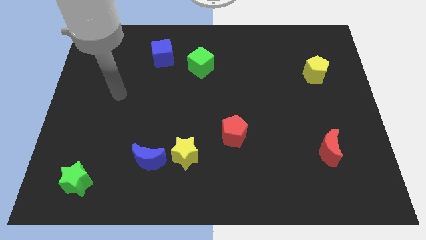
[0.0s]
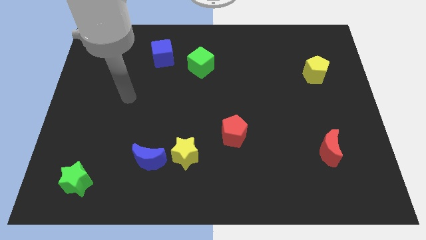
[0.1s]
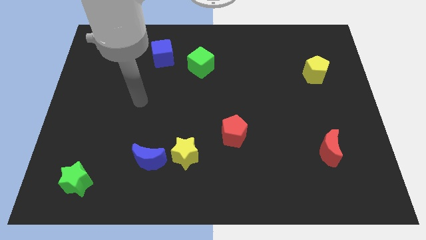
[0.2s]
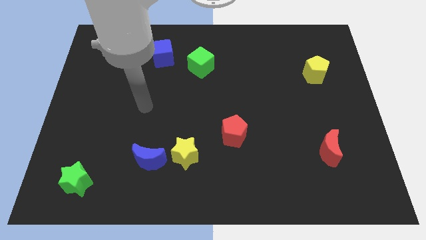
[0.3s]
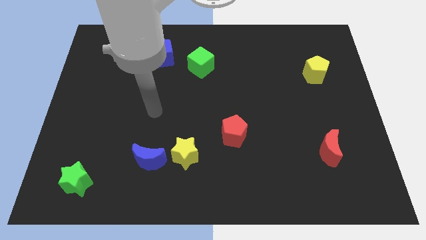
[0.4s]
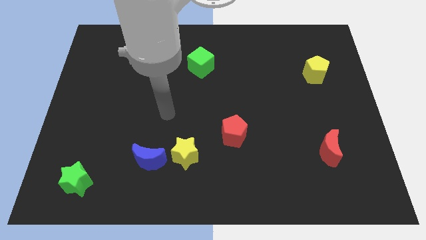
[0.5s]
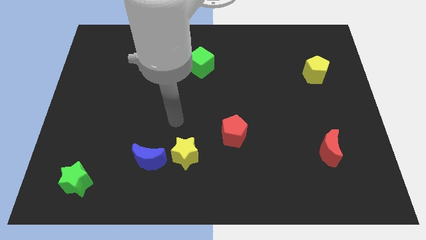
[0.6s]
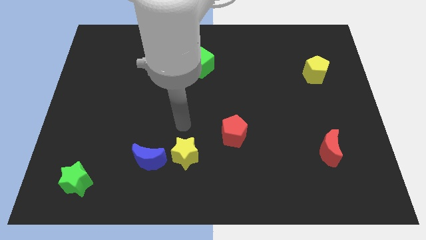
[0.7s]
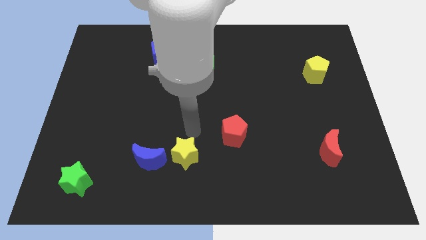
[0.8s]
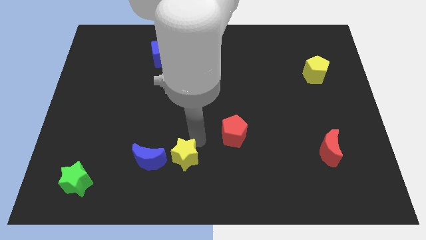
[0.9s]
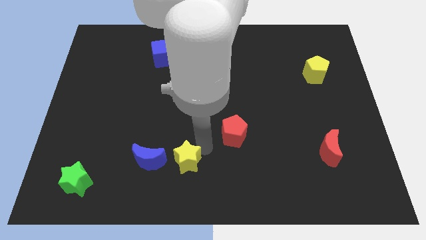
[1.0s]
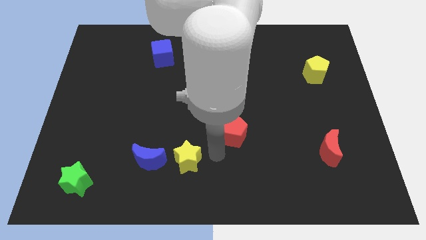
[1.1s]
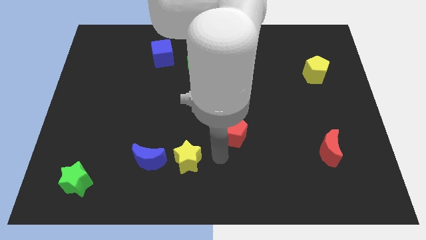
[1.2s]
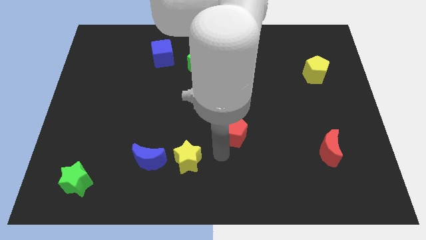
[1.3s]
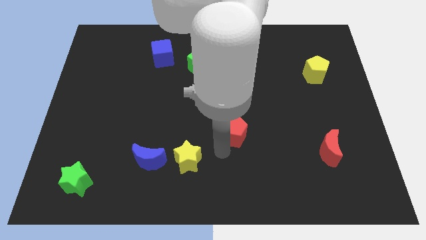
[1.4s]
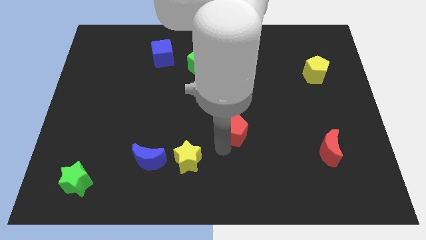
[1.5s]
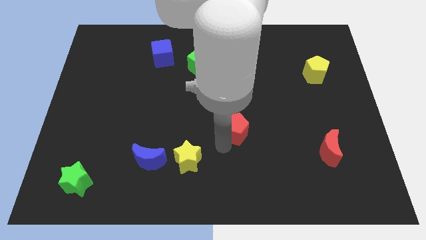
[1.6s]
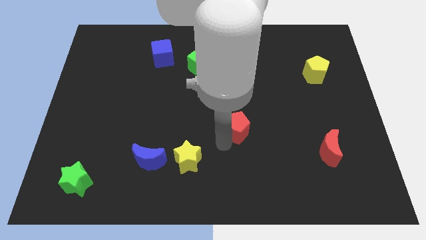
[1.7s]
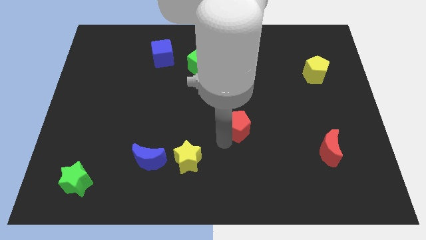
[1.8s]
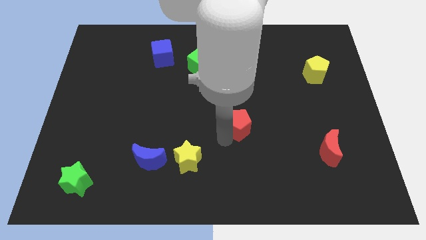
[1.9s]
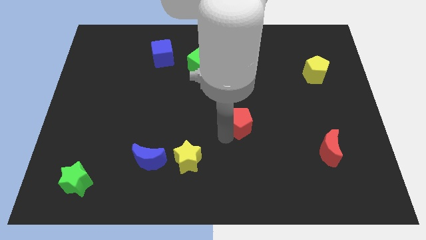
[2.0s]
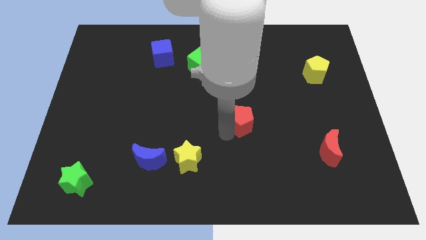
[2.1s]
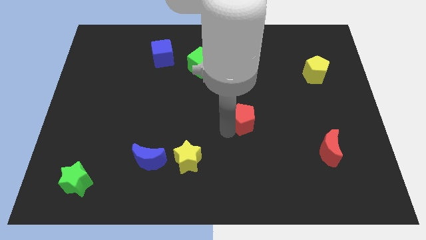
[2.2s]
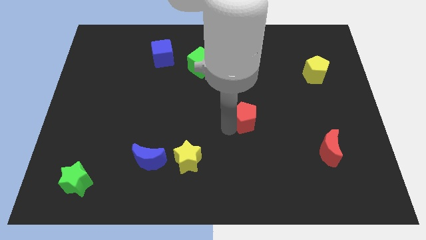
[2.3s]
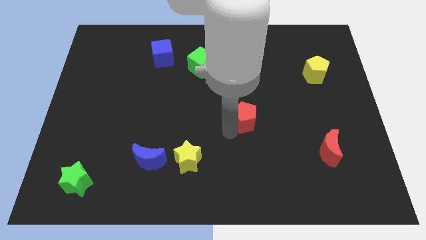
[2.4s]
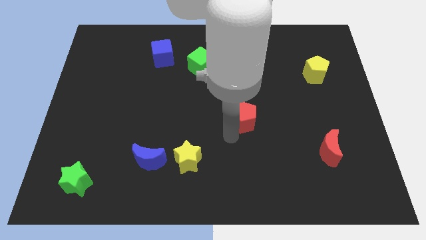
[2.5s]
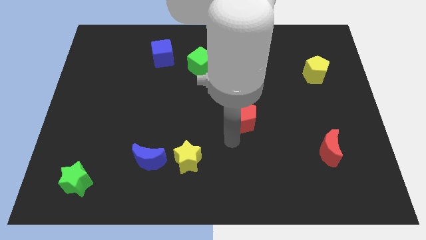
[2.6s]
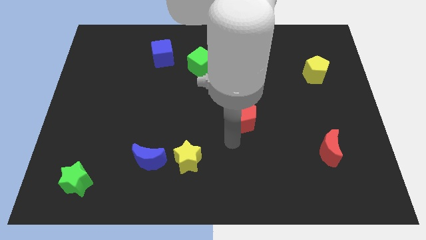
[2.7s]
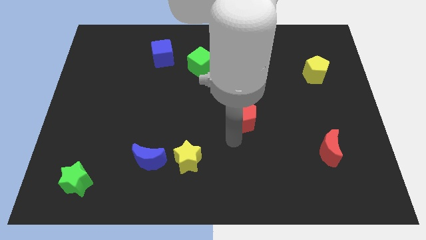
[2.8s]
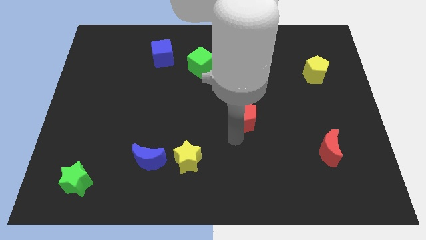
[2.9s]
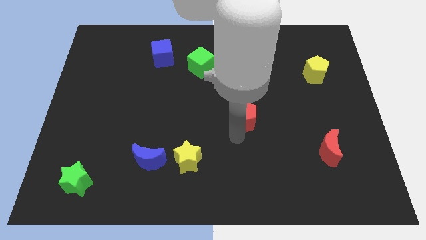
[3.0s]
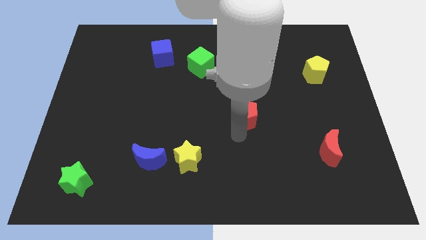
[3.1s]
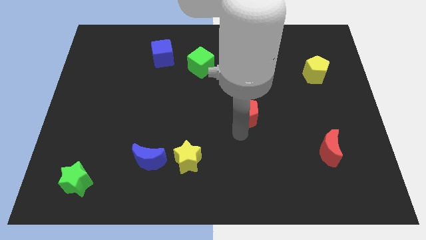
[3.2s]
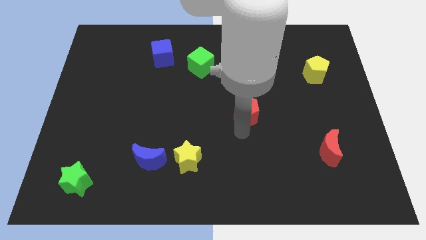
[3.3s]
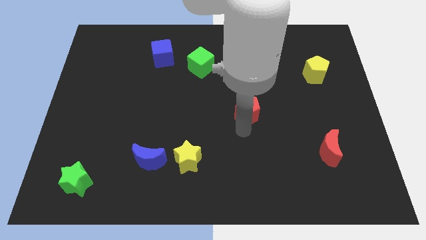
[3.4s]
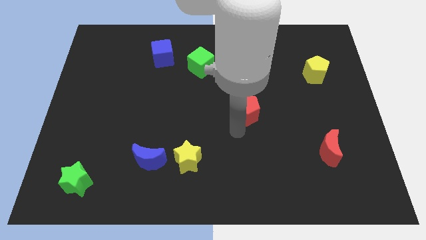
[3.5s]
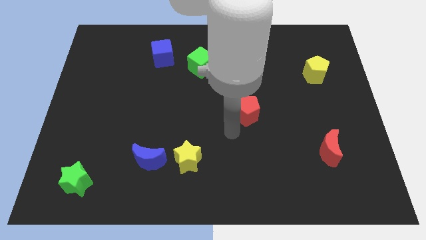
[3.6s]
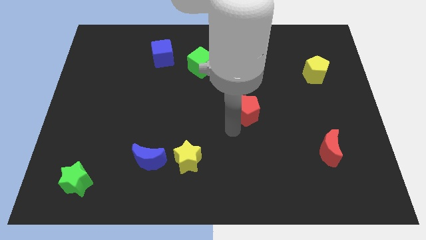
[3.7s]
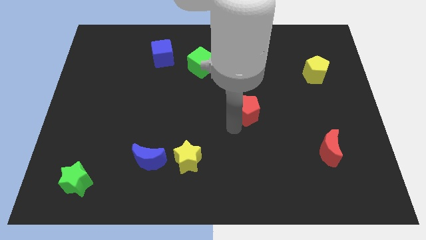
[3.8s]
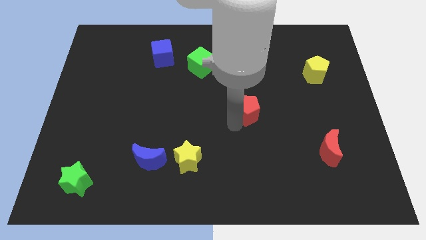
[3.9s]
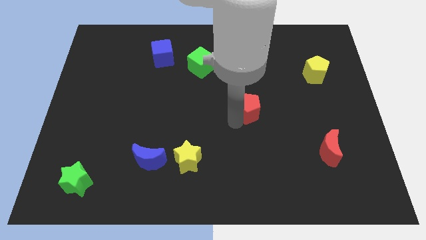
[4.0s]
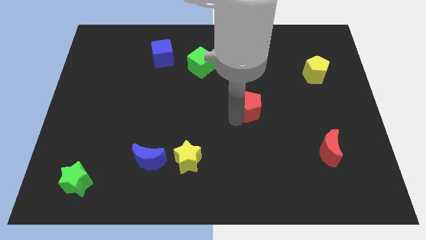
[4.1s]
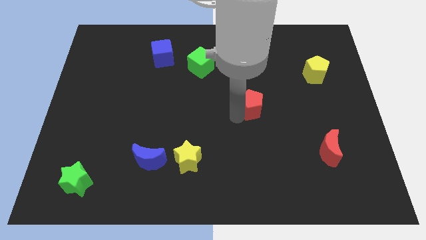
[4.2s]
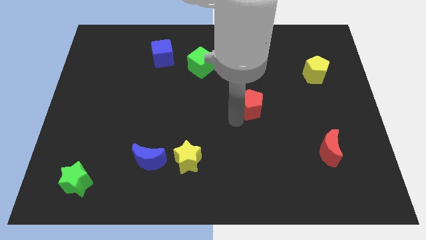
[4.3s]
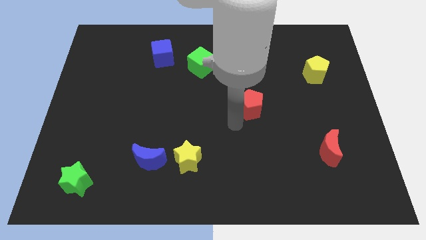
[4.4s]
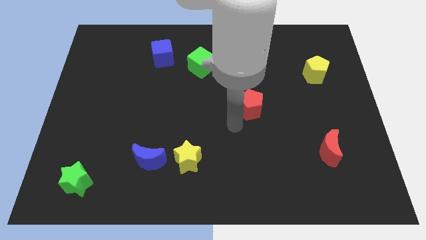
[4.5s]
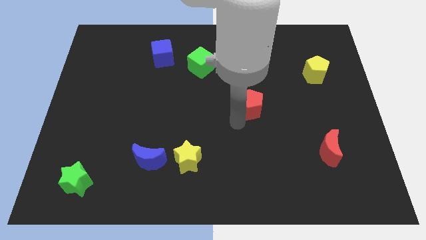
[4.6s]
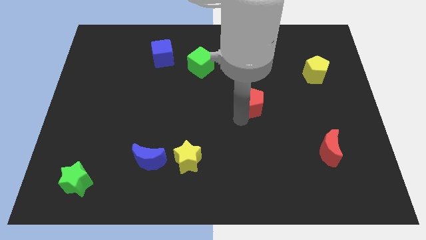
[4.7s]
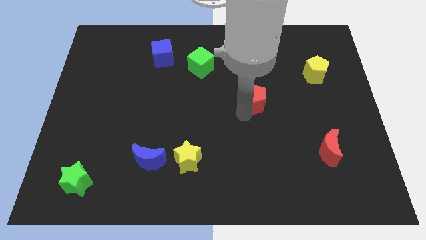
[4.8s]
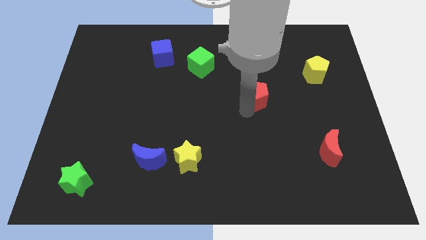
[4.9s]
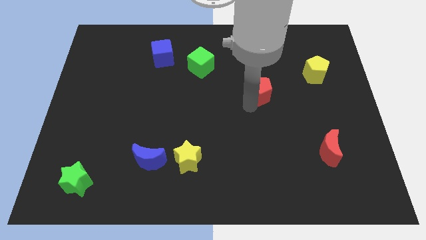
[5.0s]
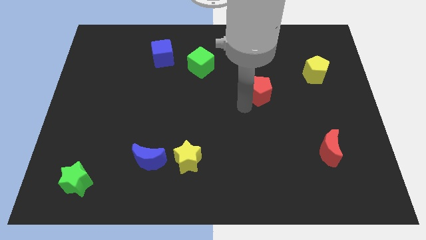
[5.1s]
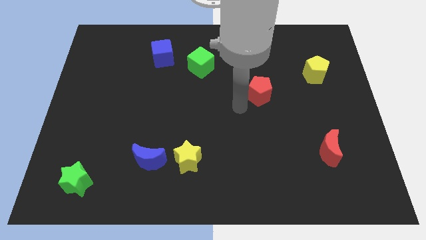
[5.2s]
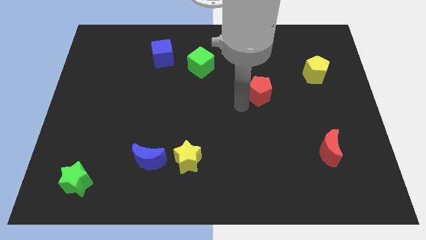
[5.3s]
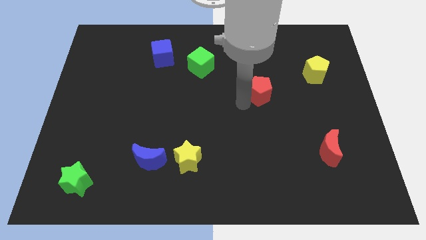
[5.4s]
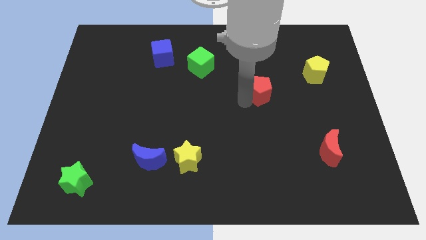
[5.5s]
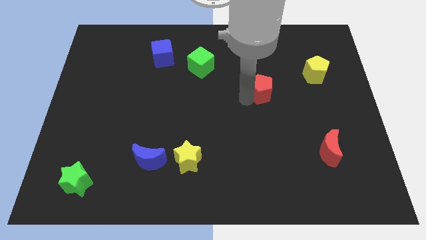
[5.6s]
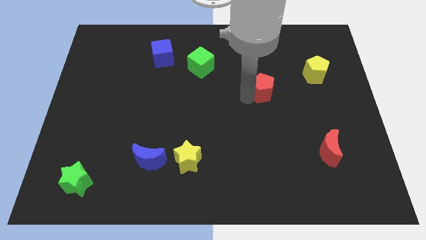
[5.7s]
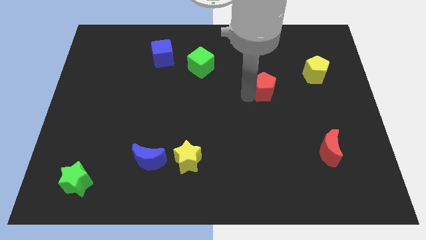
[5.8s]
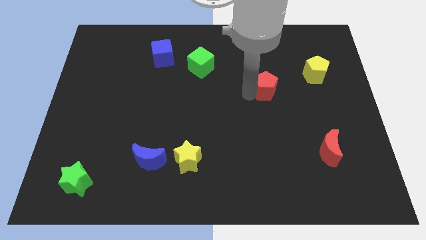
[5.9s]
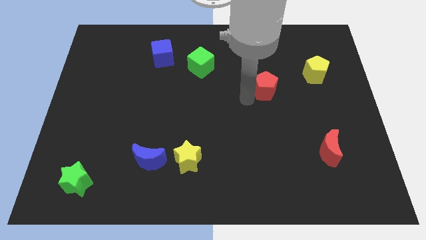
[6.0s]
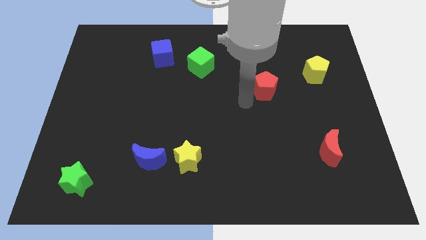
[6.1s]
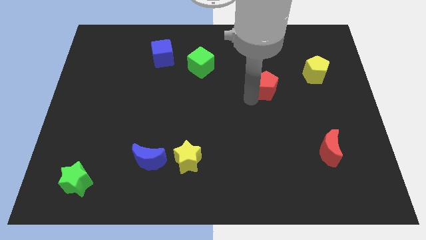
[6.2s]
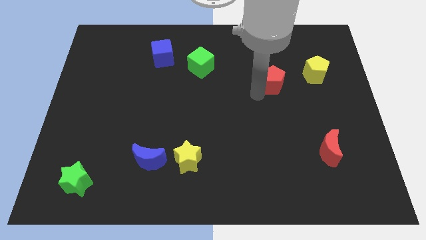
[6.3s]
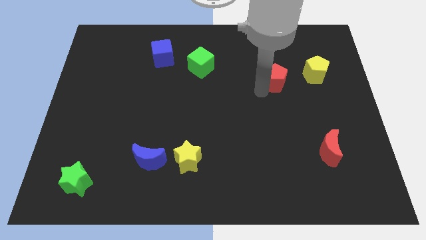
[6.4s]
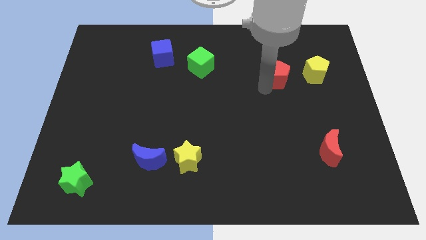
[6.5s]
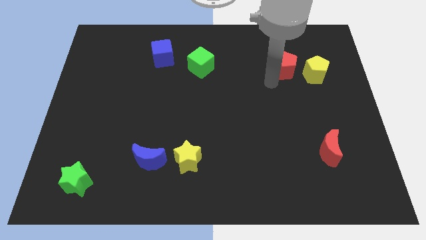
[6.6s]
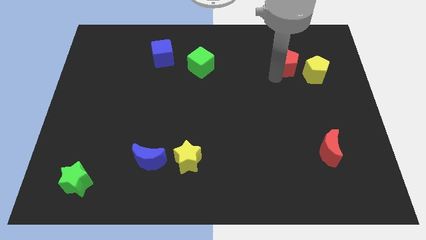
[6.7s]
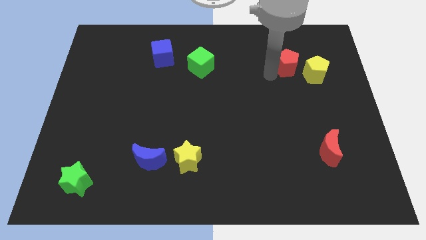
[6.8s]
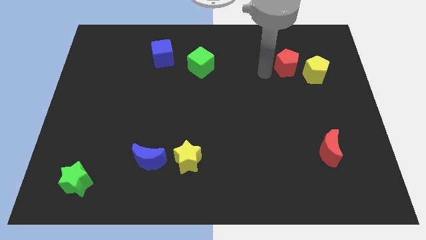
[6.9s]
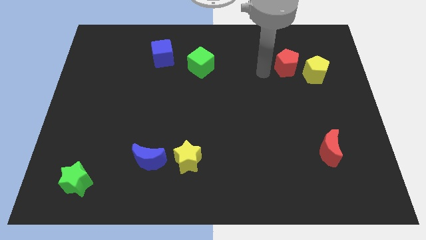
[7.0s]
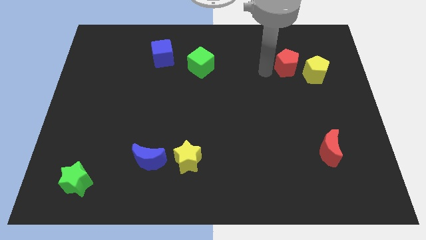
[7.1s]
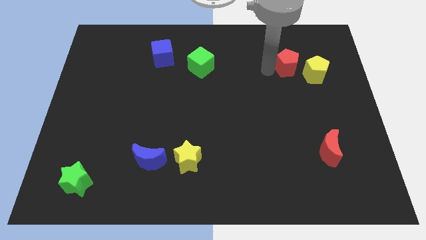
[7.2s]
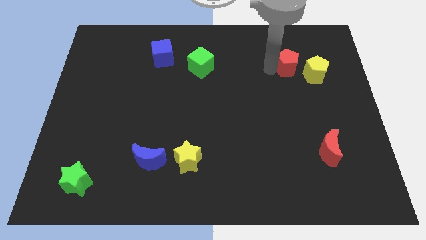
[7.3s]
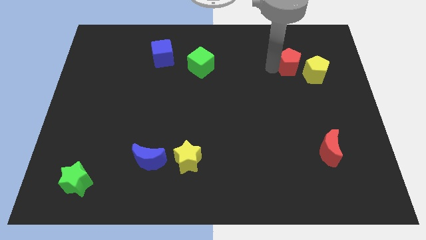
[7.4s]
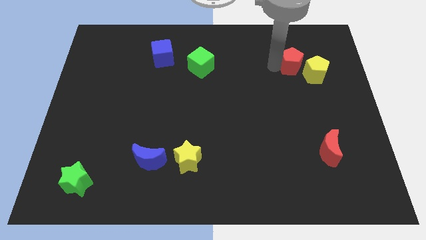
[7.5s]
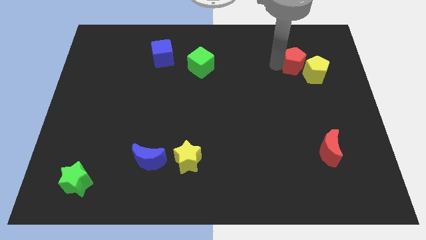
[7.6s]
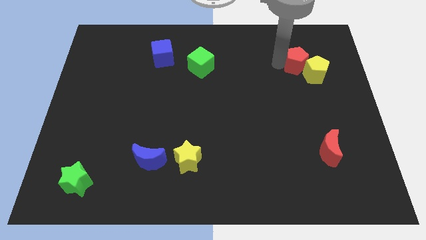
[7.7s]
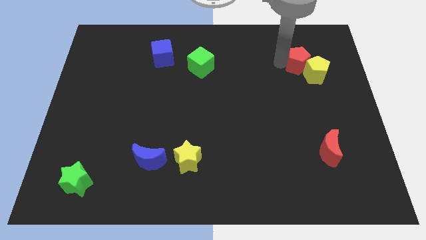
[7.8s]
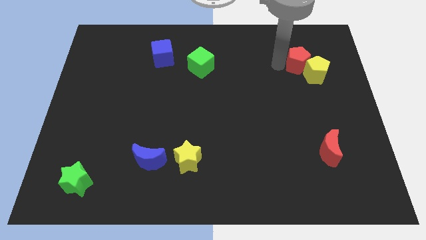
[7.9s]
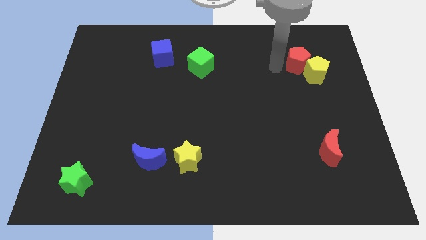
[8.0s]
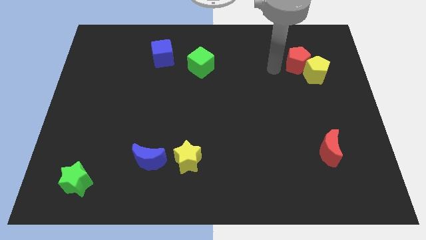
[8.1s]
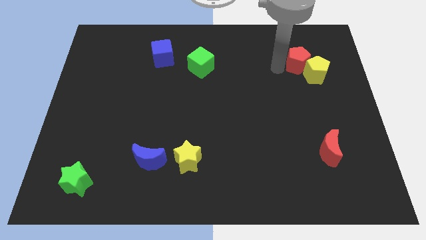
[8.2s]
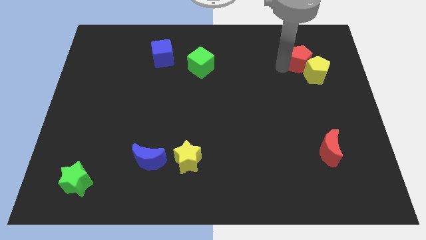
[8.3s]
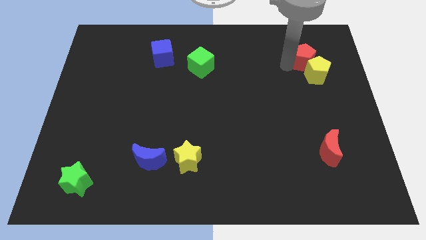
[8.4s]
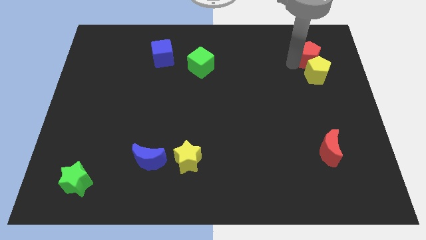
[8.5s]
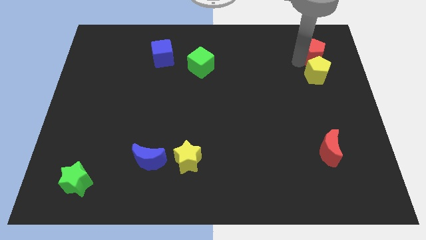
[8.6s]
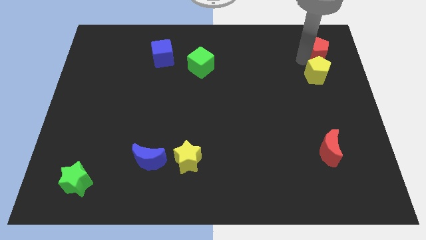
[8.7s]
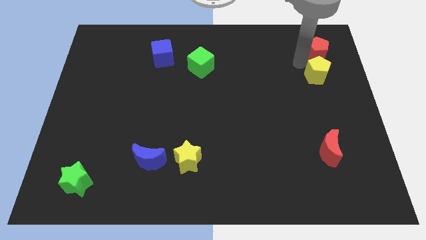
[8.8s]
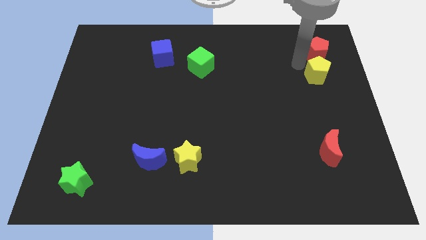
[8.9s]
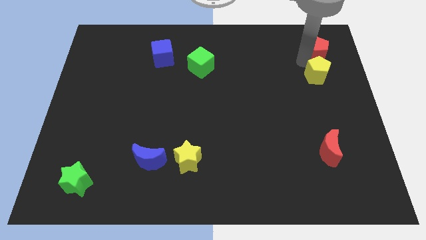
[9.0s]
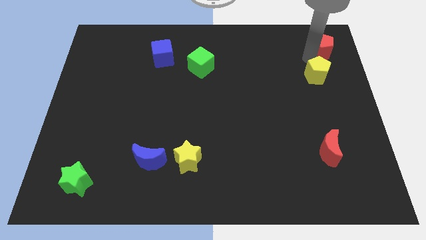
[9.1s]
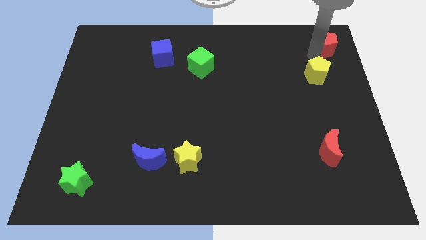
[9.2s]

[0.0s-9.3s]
move the red pentagon to the upper right corner
